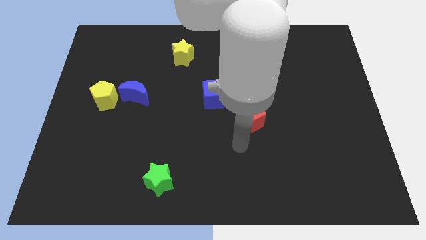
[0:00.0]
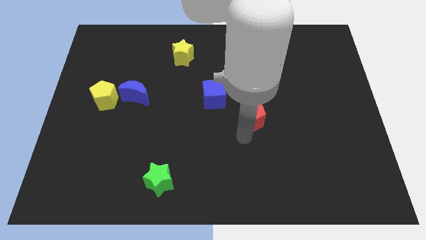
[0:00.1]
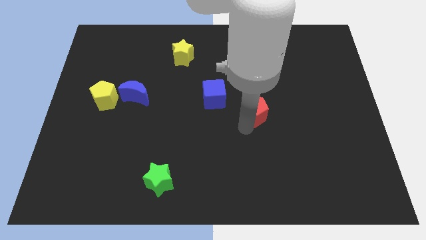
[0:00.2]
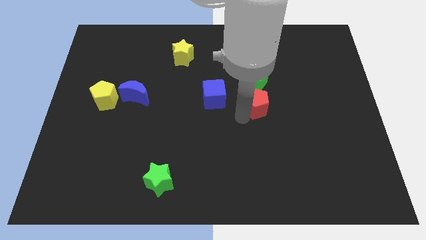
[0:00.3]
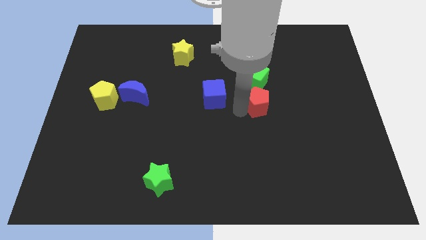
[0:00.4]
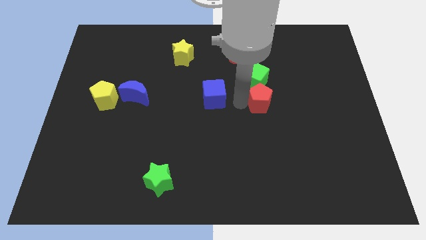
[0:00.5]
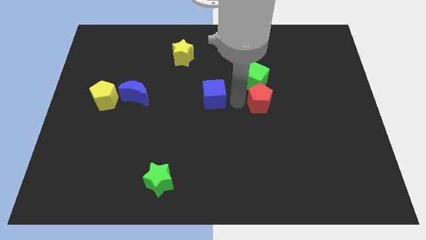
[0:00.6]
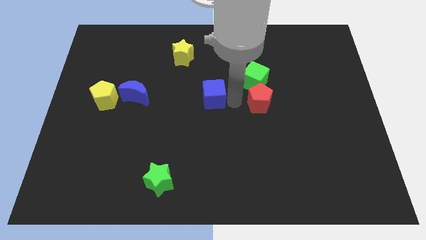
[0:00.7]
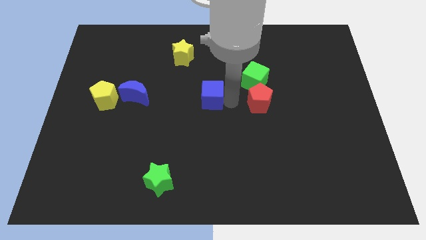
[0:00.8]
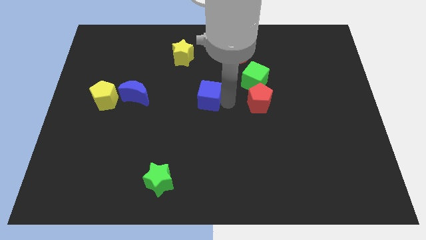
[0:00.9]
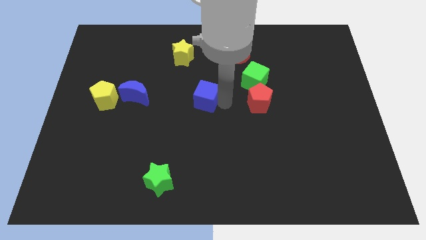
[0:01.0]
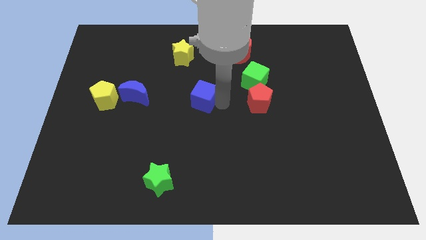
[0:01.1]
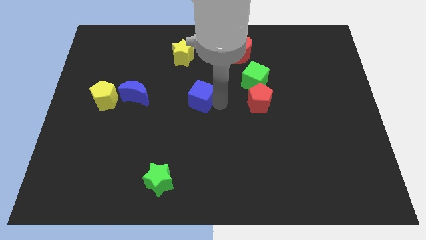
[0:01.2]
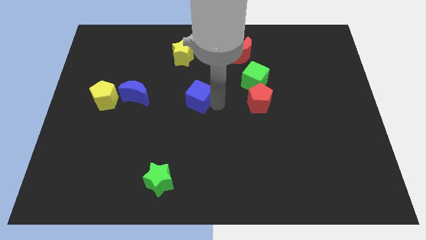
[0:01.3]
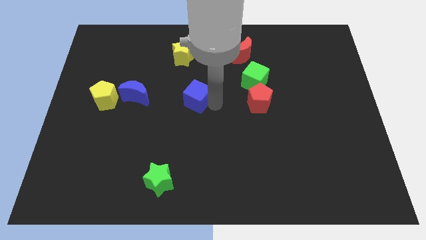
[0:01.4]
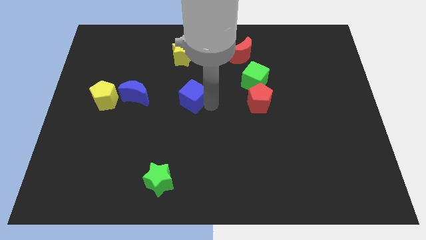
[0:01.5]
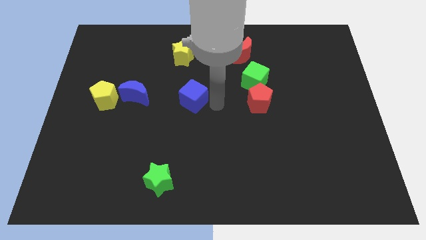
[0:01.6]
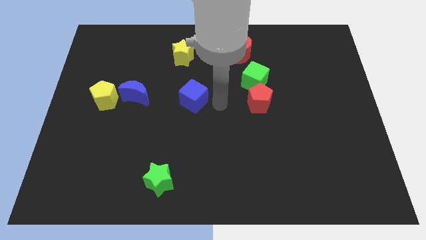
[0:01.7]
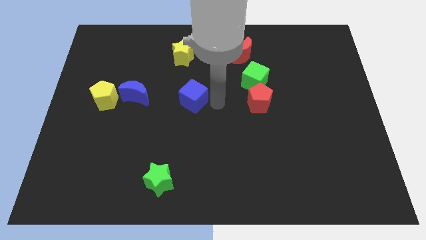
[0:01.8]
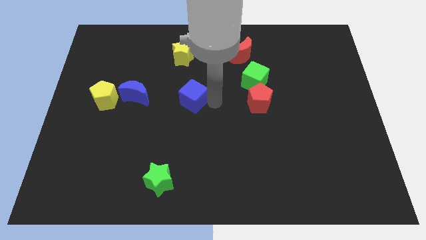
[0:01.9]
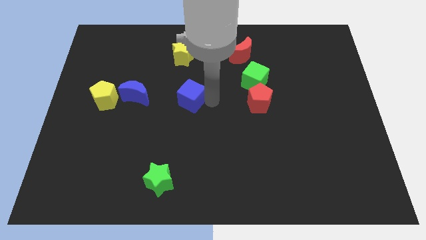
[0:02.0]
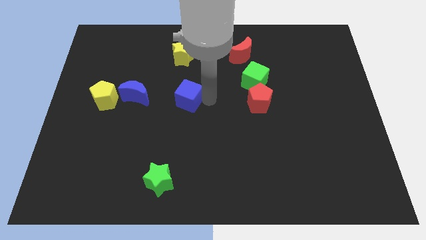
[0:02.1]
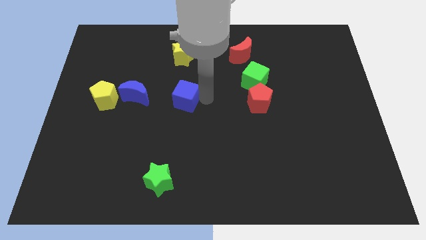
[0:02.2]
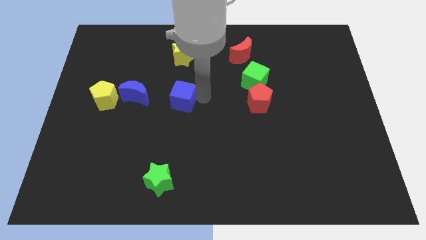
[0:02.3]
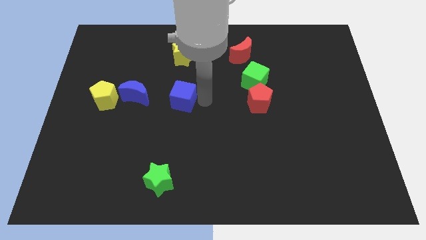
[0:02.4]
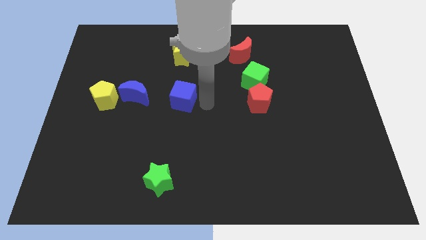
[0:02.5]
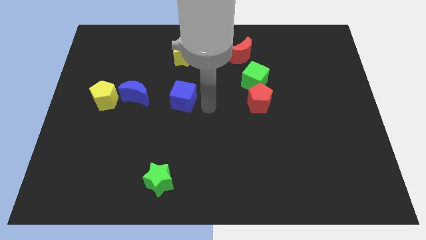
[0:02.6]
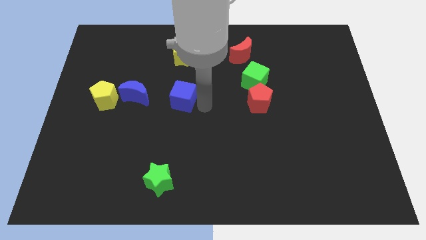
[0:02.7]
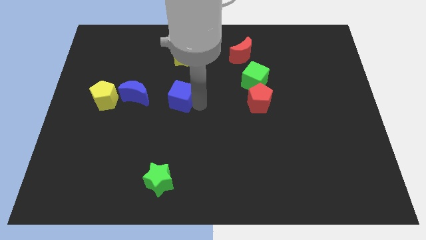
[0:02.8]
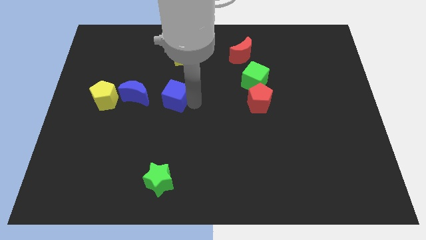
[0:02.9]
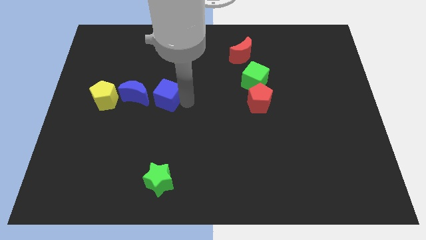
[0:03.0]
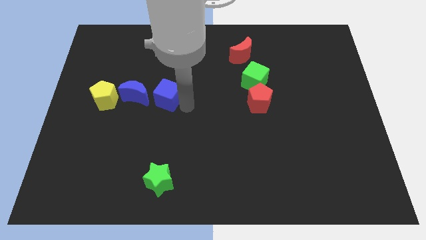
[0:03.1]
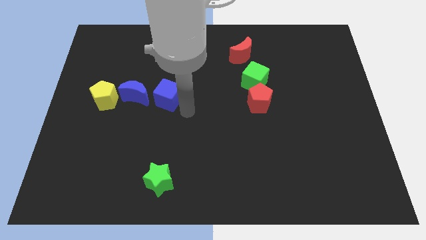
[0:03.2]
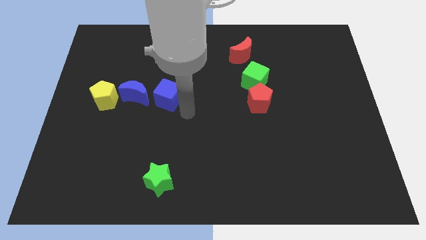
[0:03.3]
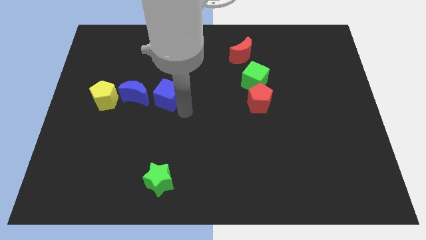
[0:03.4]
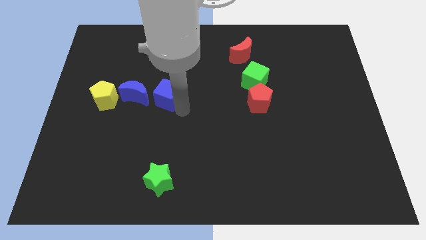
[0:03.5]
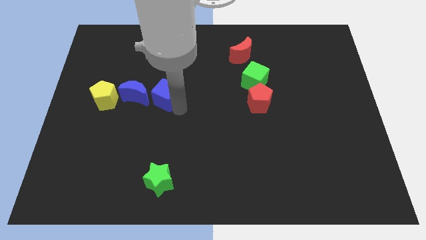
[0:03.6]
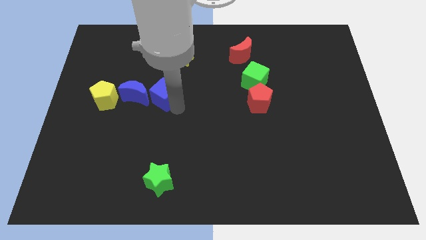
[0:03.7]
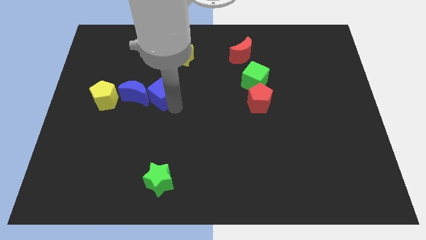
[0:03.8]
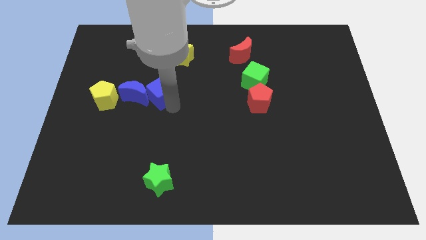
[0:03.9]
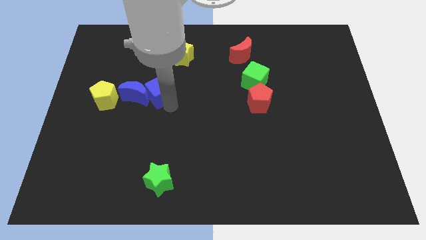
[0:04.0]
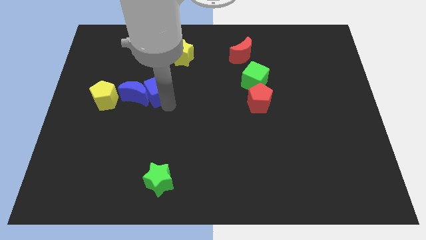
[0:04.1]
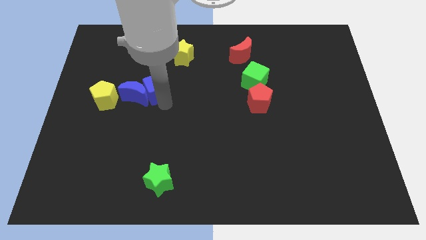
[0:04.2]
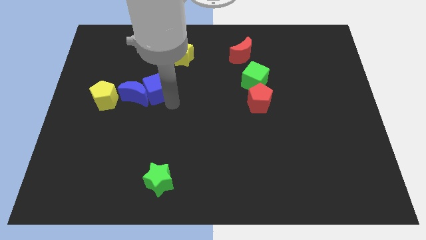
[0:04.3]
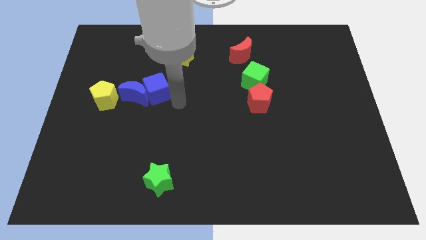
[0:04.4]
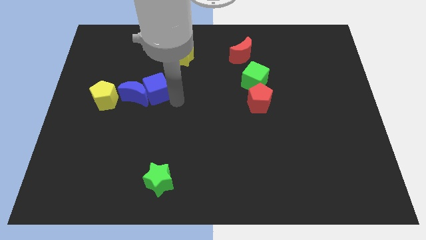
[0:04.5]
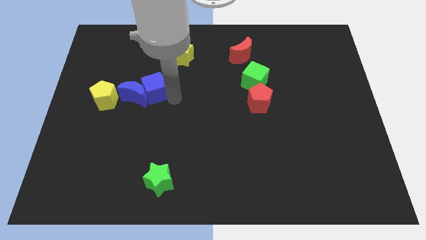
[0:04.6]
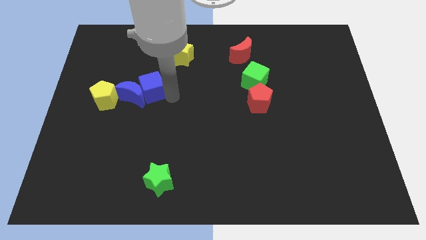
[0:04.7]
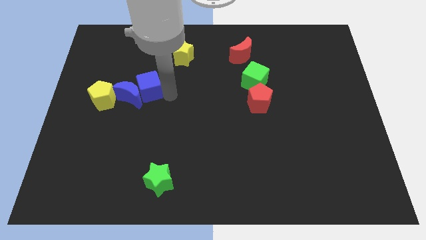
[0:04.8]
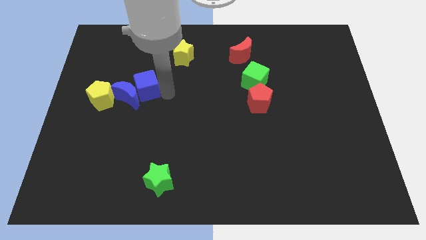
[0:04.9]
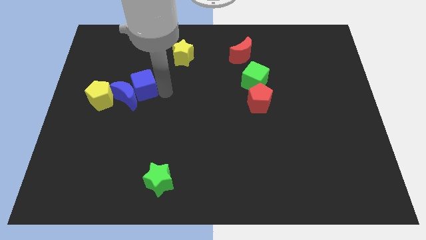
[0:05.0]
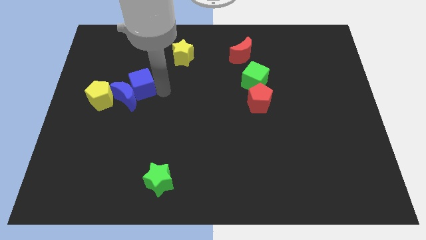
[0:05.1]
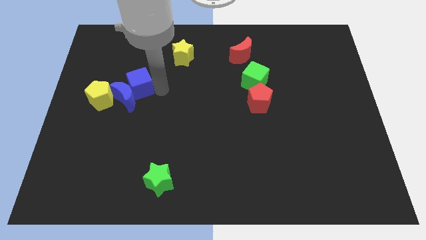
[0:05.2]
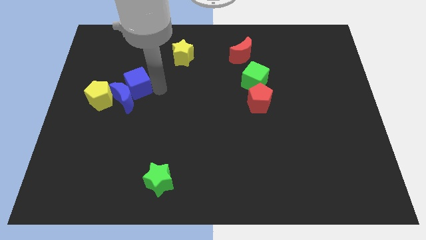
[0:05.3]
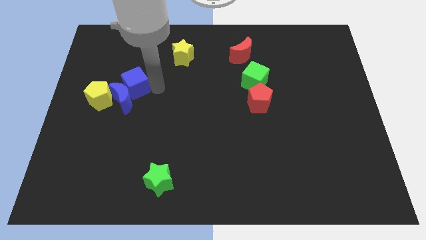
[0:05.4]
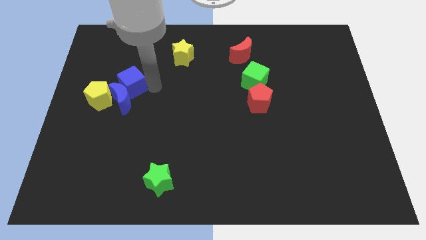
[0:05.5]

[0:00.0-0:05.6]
move the blue cube diagonally up and to the left of the blue moon
